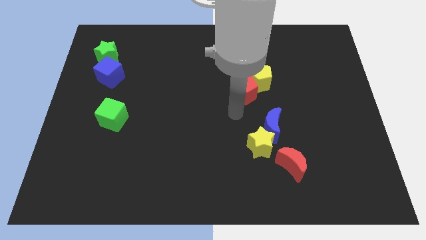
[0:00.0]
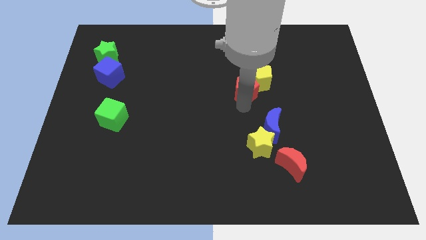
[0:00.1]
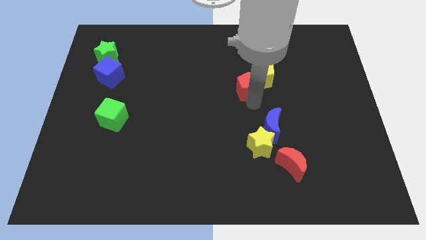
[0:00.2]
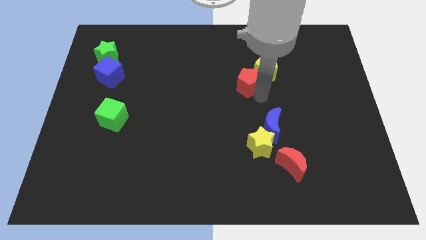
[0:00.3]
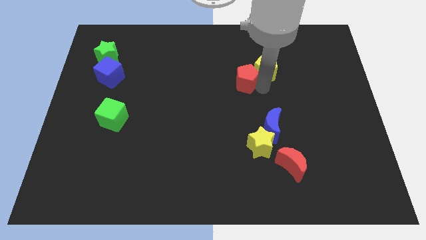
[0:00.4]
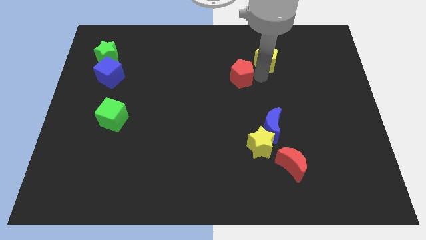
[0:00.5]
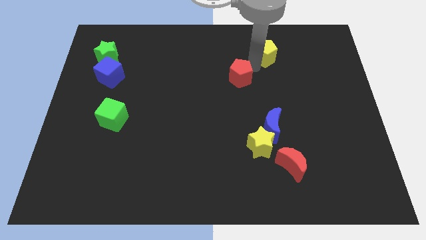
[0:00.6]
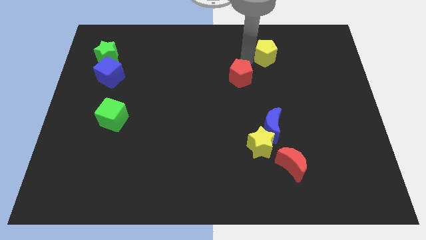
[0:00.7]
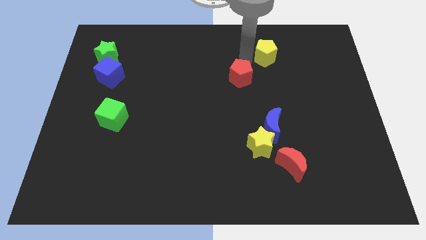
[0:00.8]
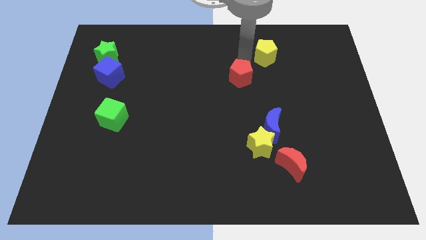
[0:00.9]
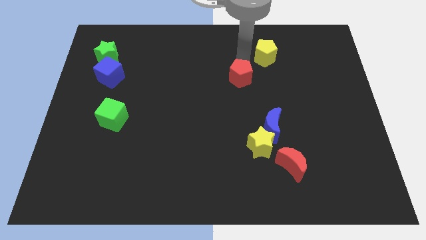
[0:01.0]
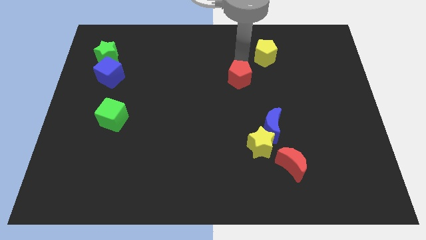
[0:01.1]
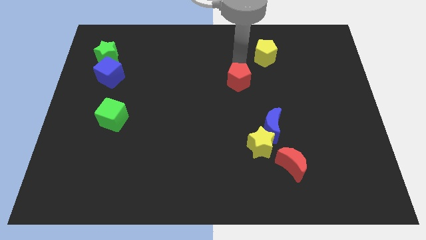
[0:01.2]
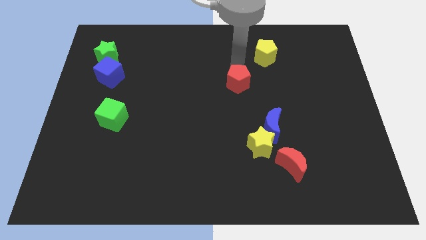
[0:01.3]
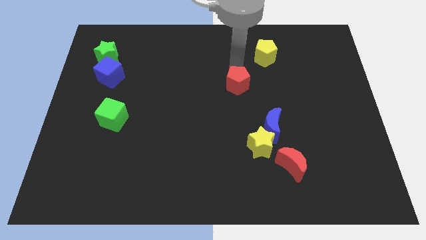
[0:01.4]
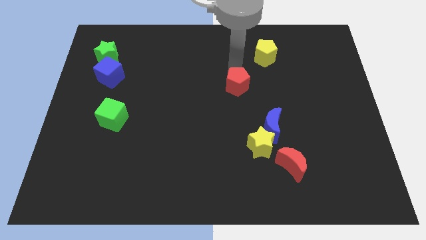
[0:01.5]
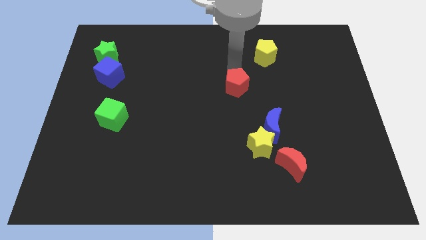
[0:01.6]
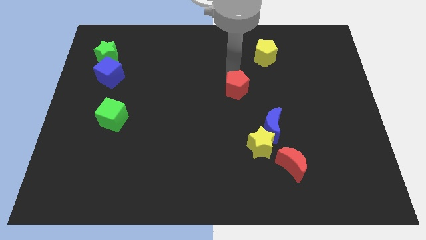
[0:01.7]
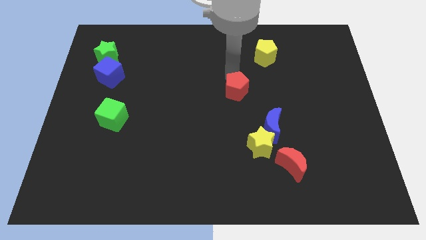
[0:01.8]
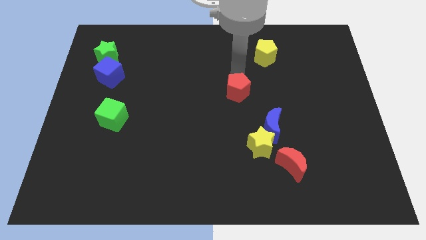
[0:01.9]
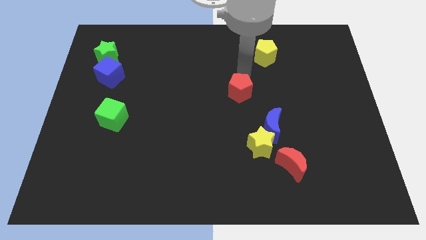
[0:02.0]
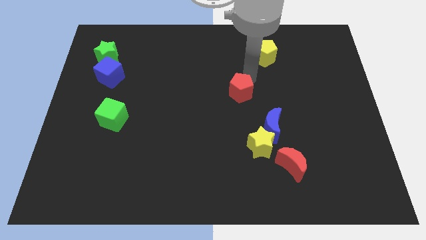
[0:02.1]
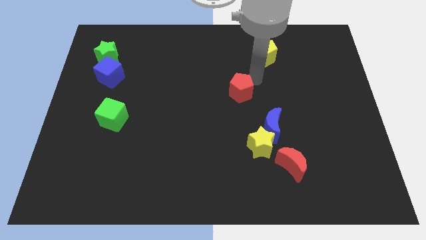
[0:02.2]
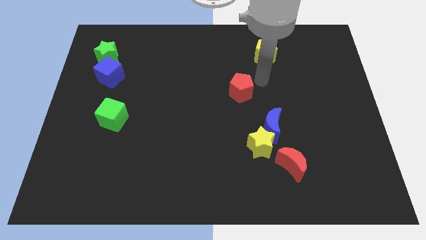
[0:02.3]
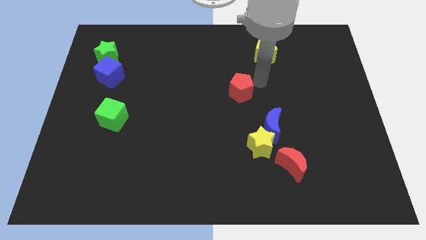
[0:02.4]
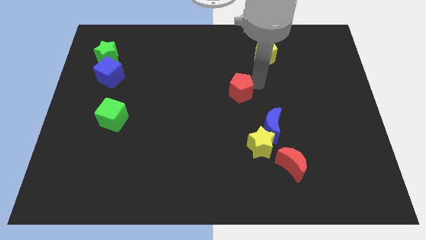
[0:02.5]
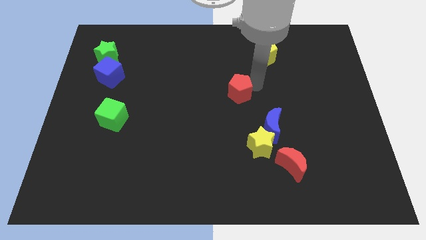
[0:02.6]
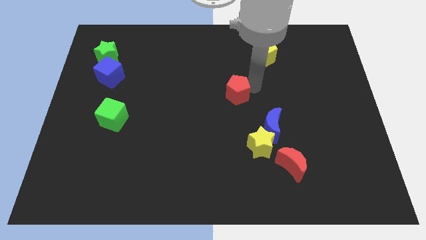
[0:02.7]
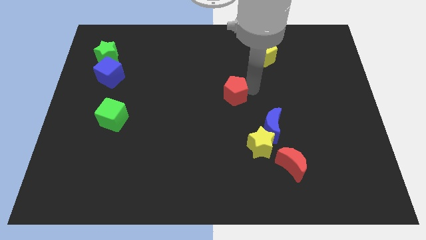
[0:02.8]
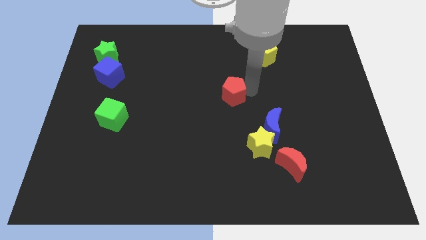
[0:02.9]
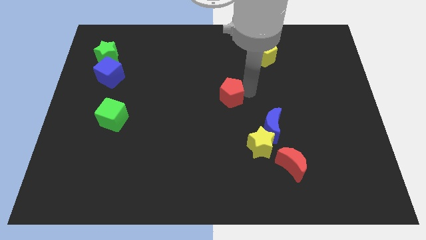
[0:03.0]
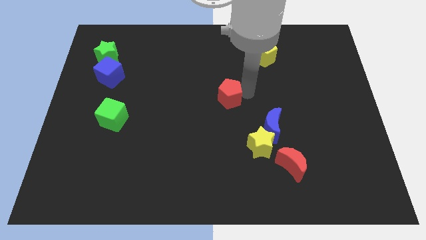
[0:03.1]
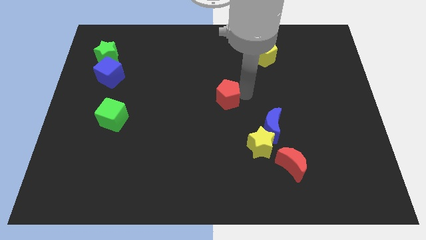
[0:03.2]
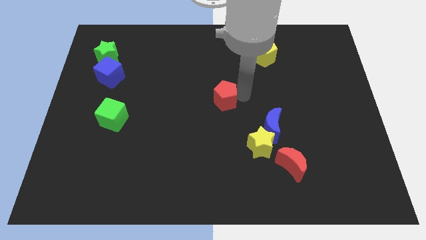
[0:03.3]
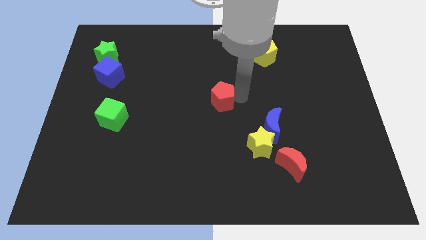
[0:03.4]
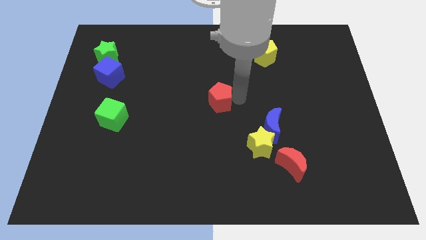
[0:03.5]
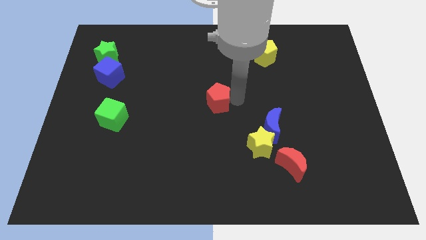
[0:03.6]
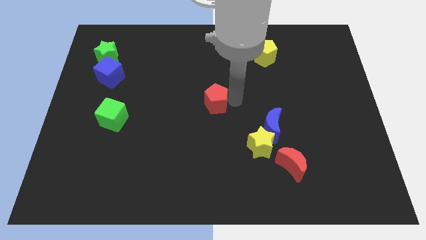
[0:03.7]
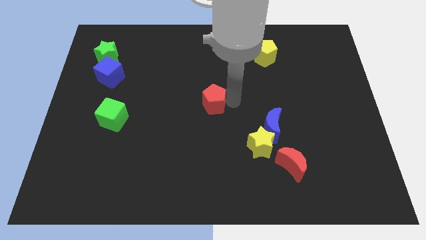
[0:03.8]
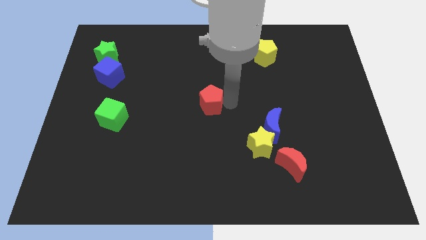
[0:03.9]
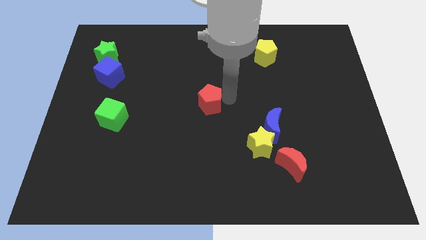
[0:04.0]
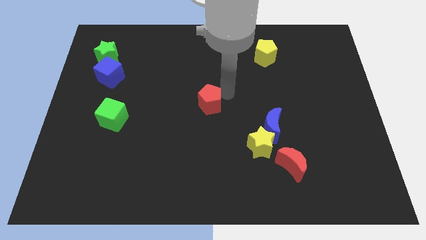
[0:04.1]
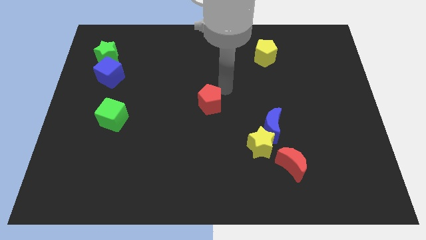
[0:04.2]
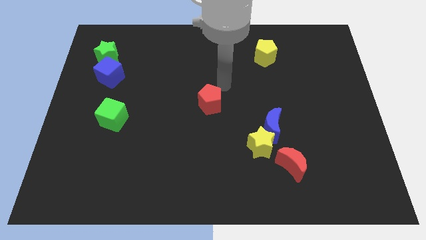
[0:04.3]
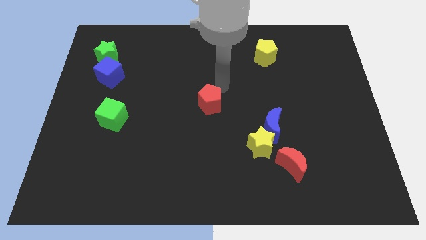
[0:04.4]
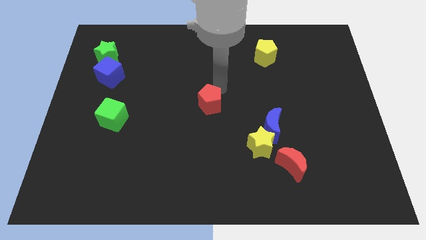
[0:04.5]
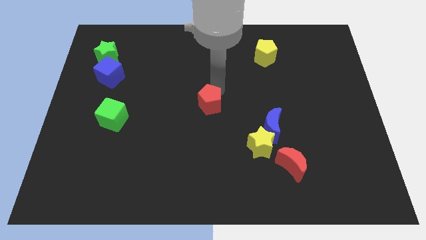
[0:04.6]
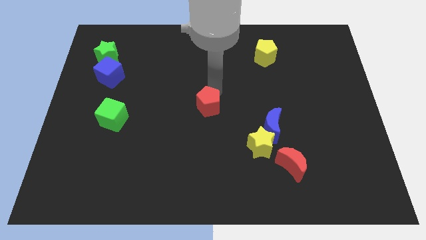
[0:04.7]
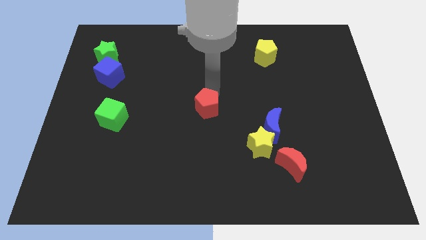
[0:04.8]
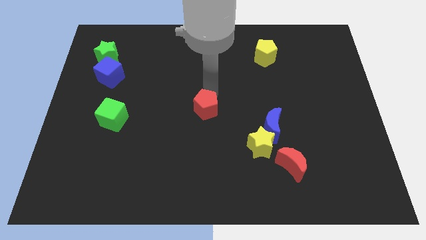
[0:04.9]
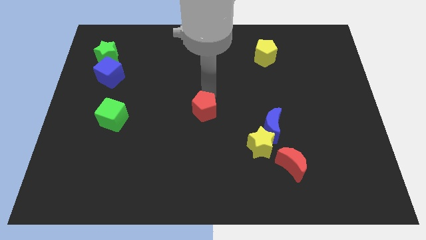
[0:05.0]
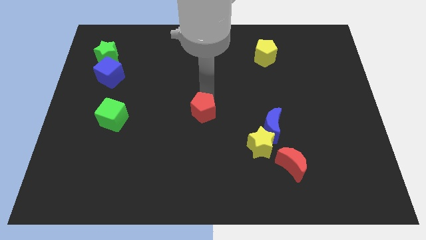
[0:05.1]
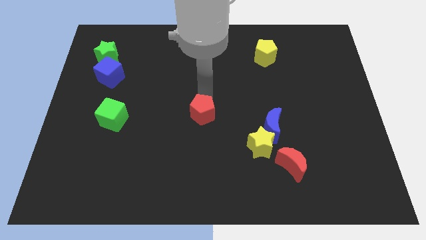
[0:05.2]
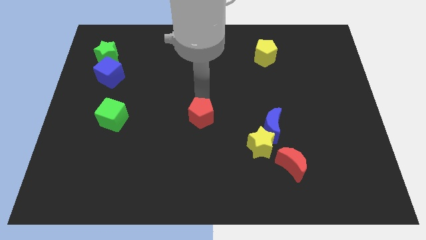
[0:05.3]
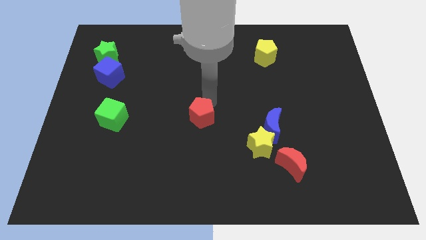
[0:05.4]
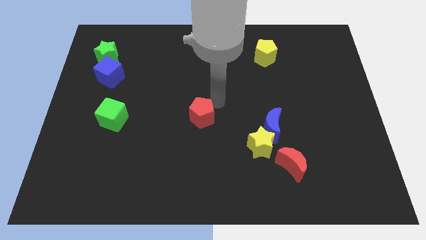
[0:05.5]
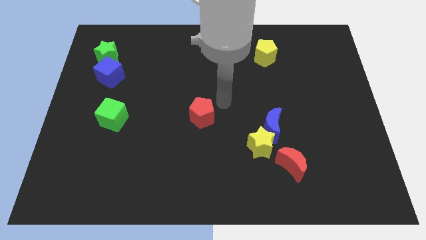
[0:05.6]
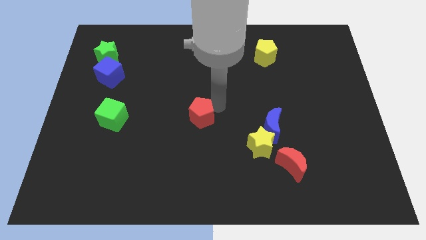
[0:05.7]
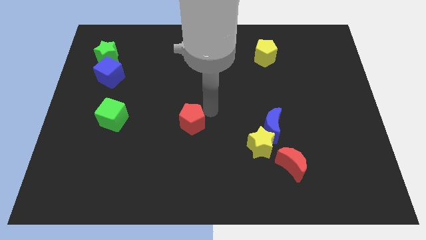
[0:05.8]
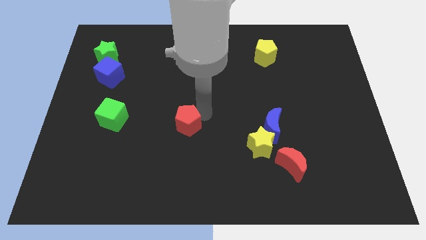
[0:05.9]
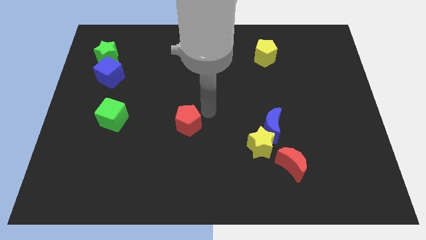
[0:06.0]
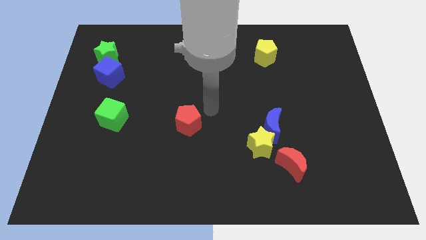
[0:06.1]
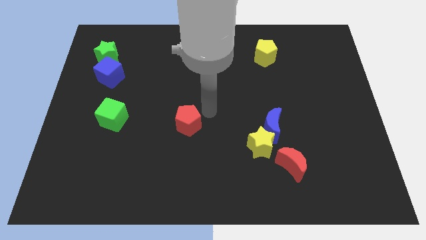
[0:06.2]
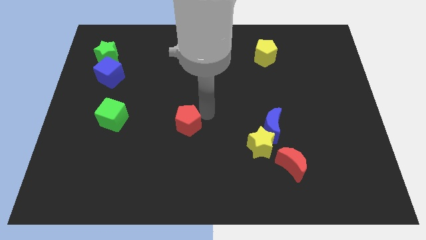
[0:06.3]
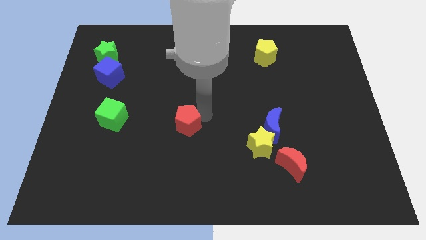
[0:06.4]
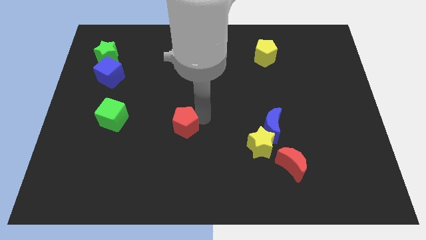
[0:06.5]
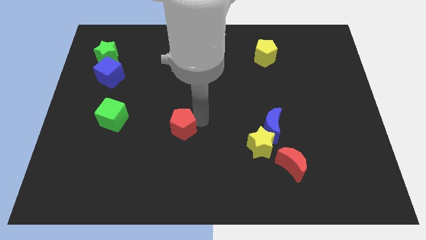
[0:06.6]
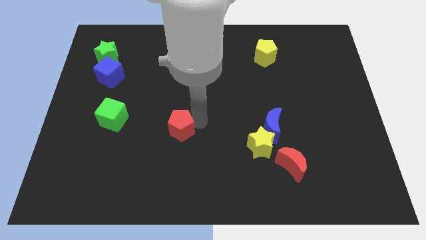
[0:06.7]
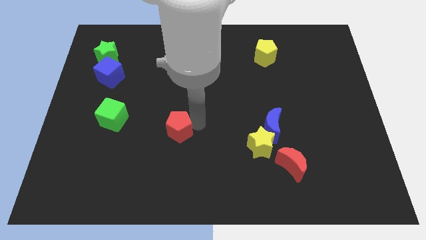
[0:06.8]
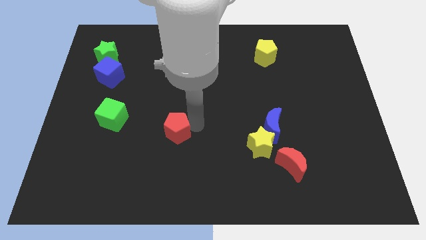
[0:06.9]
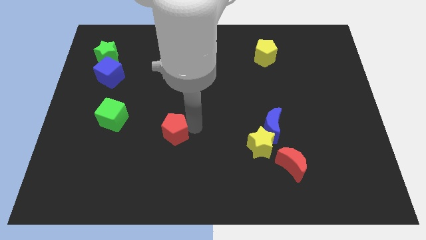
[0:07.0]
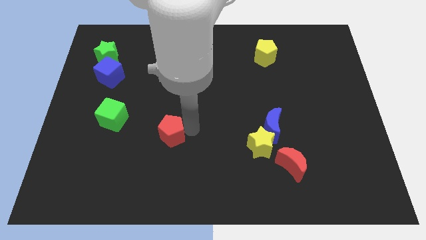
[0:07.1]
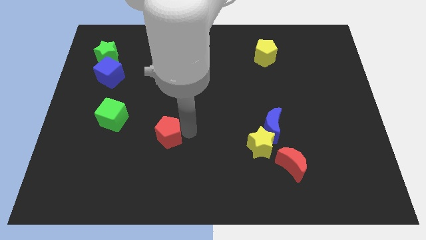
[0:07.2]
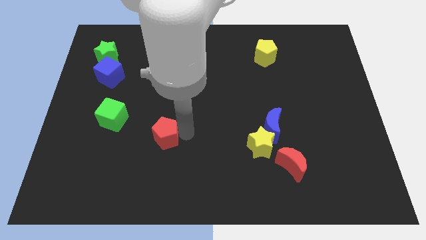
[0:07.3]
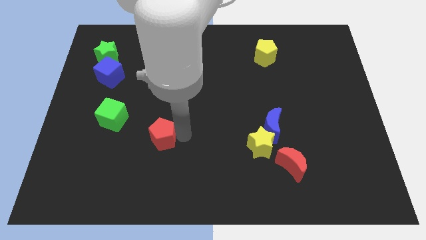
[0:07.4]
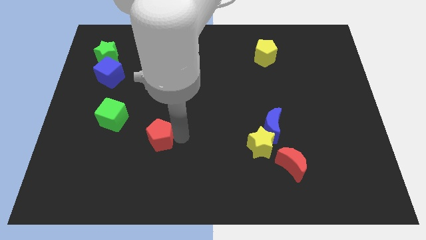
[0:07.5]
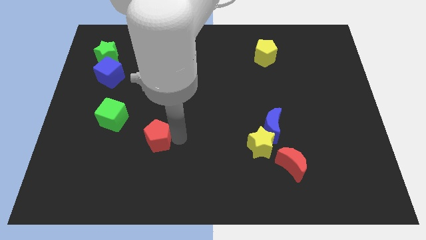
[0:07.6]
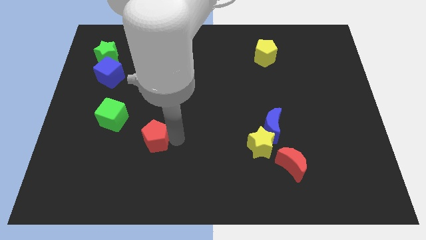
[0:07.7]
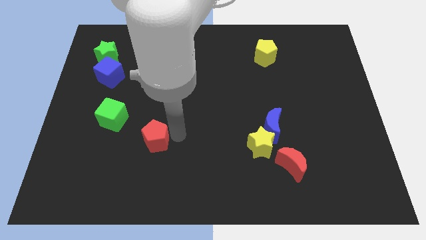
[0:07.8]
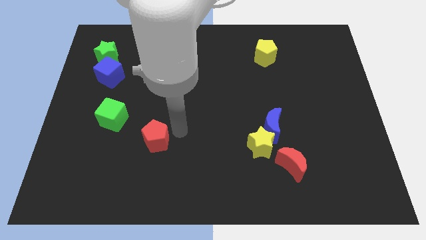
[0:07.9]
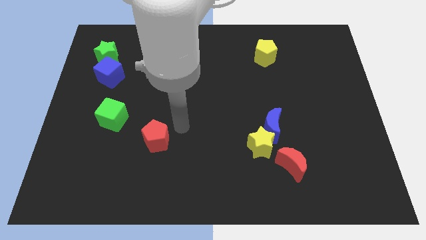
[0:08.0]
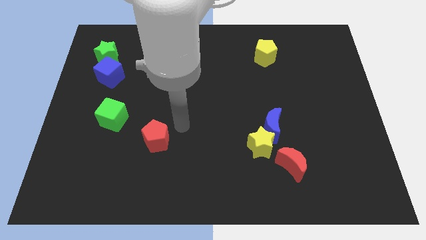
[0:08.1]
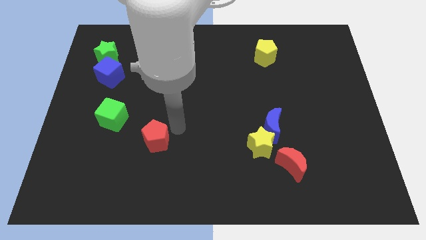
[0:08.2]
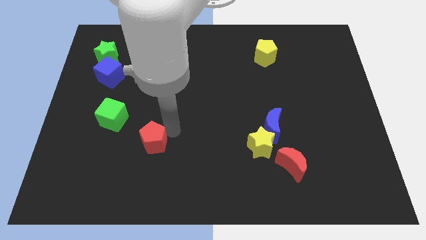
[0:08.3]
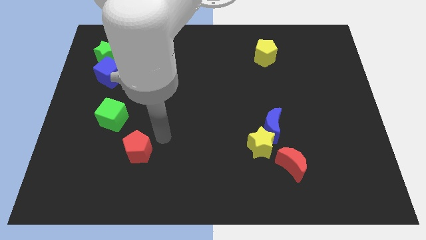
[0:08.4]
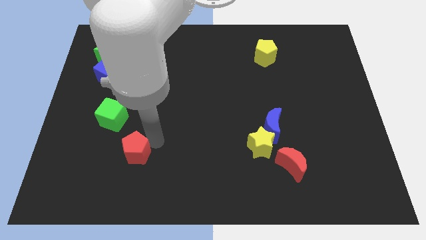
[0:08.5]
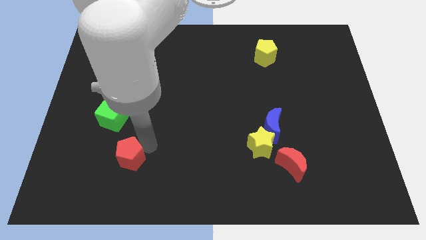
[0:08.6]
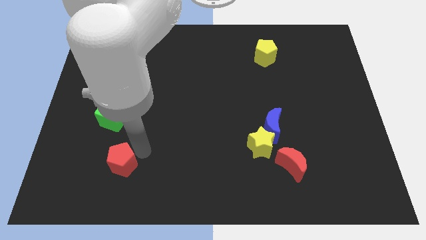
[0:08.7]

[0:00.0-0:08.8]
push the red pentagon to the bottom of the green cube
